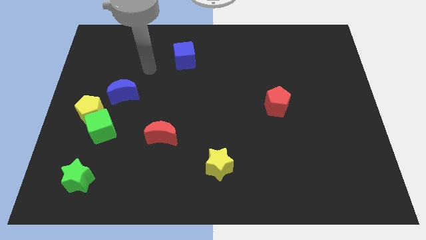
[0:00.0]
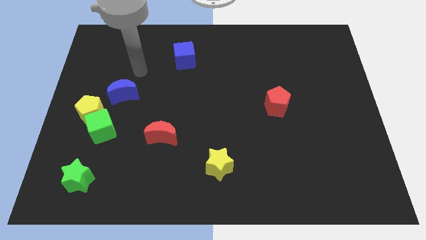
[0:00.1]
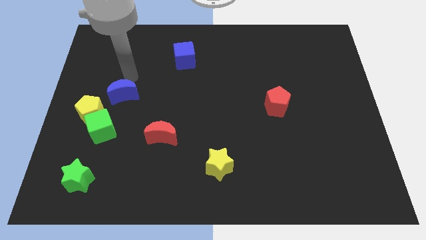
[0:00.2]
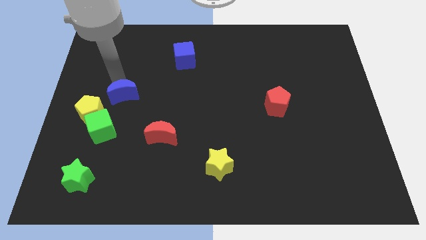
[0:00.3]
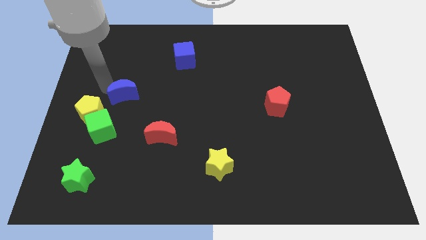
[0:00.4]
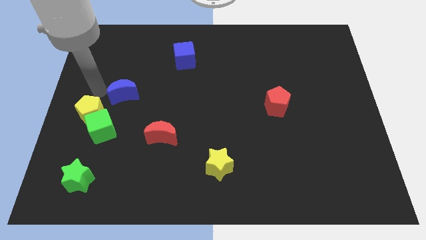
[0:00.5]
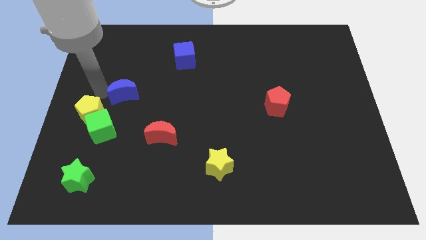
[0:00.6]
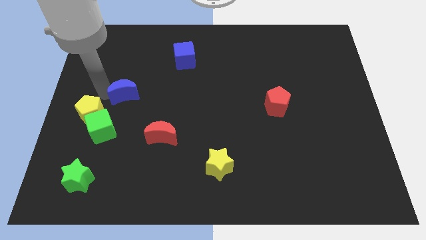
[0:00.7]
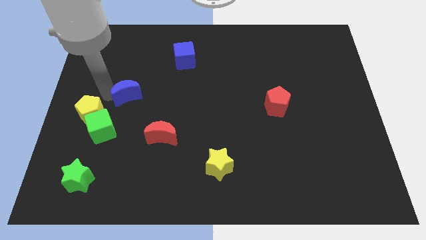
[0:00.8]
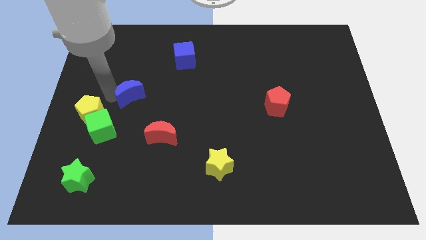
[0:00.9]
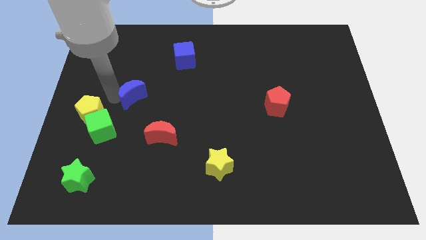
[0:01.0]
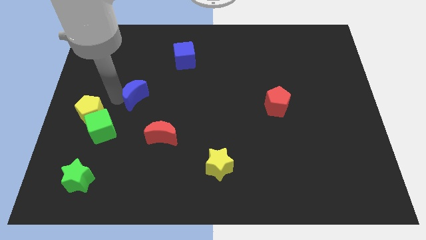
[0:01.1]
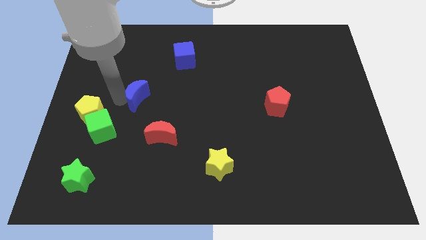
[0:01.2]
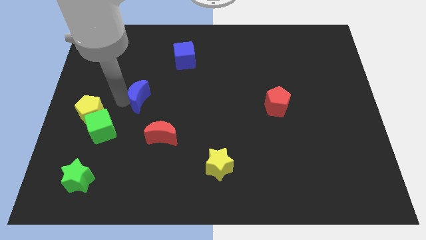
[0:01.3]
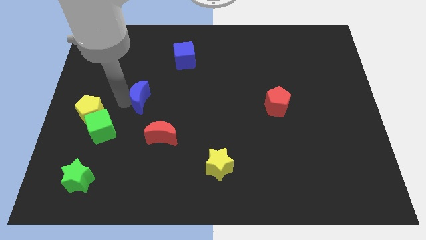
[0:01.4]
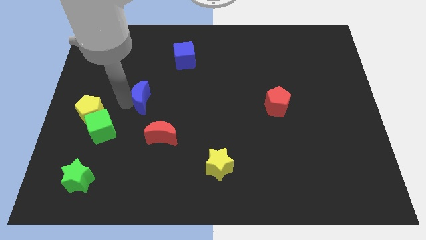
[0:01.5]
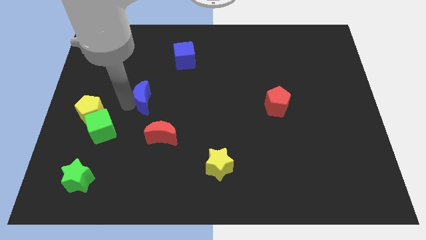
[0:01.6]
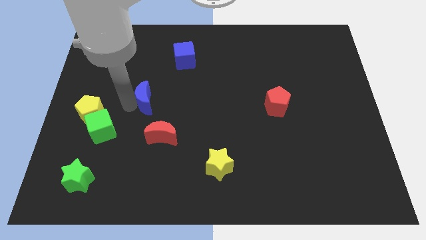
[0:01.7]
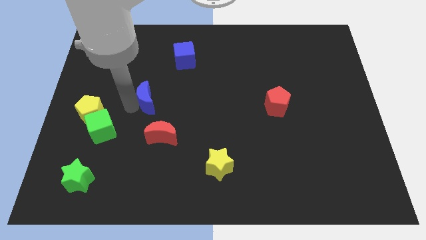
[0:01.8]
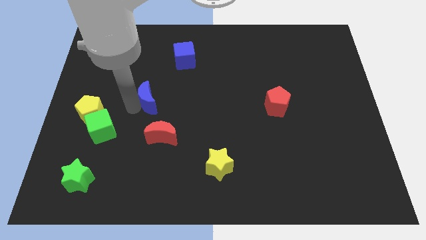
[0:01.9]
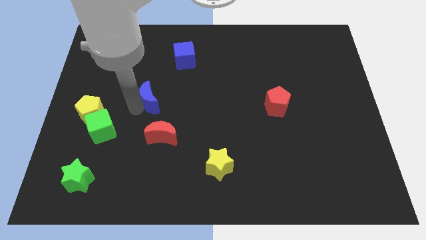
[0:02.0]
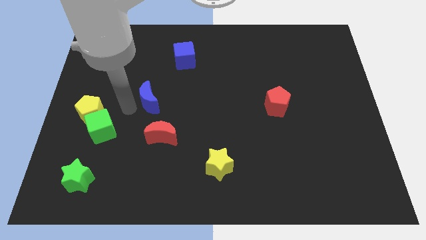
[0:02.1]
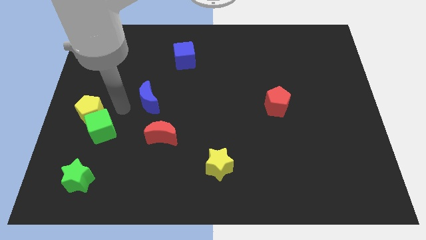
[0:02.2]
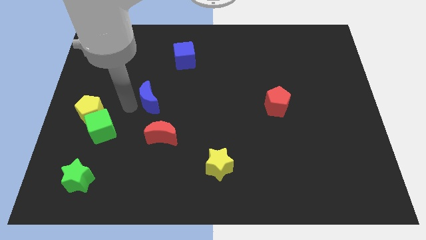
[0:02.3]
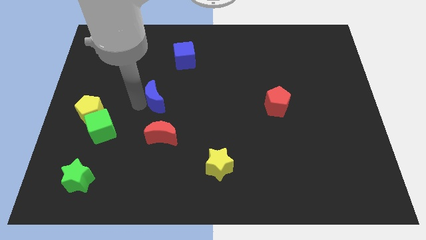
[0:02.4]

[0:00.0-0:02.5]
slightly push the blue moon right

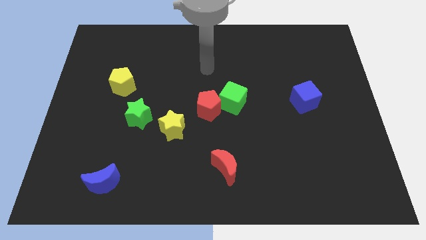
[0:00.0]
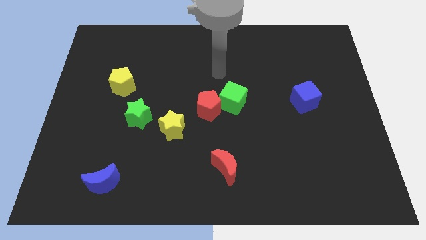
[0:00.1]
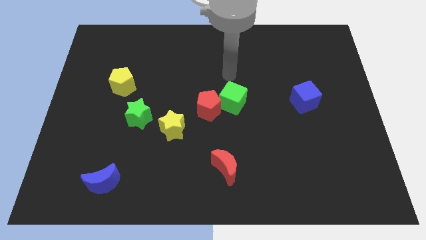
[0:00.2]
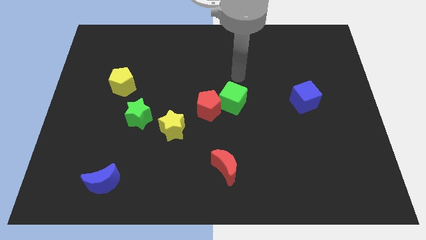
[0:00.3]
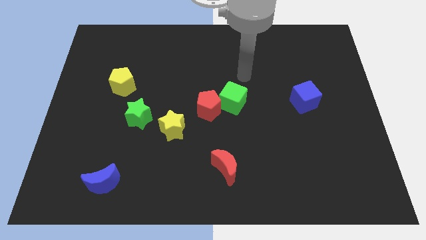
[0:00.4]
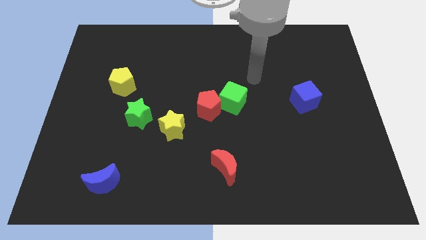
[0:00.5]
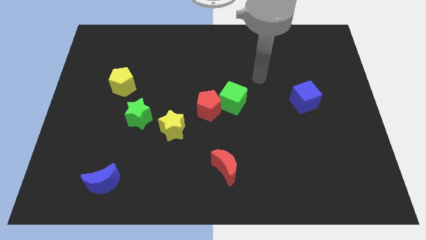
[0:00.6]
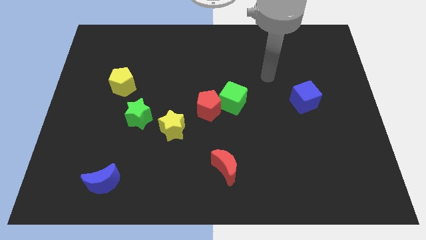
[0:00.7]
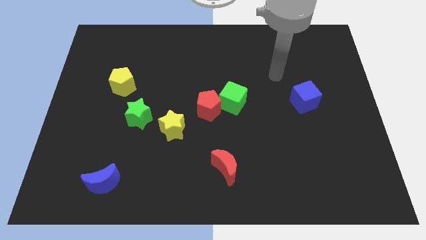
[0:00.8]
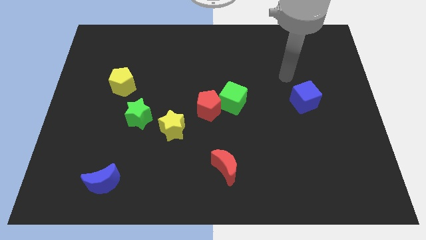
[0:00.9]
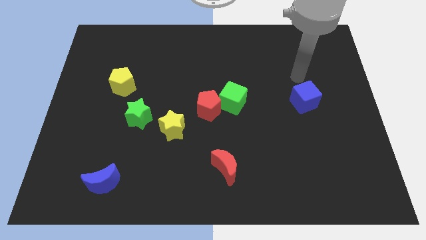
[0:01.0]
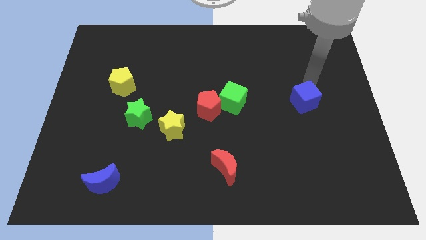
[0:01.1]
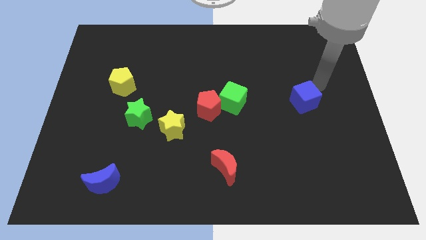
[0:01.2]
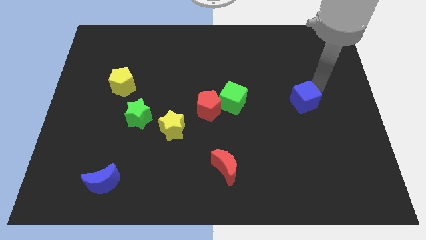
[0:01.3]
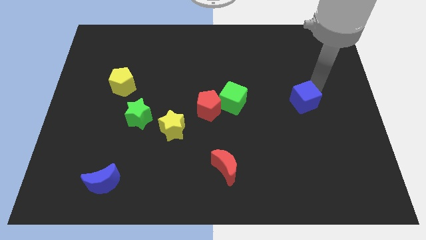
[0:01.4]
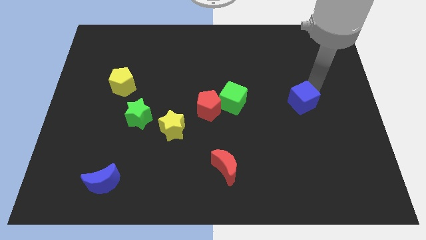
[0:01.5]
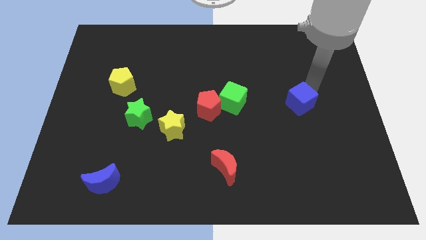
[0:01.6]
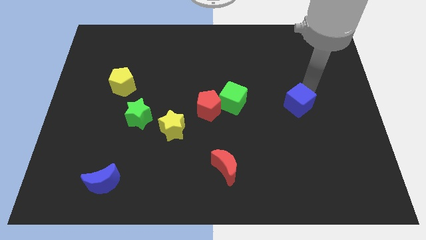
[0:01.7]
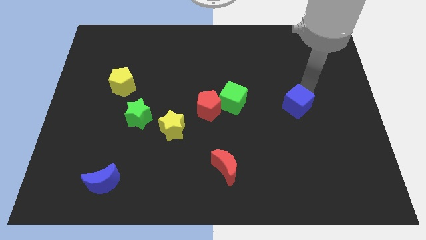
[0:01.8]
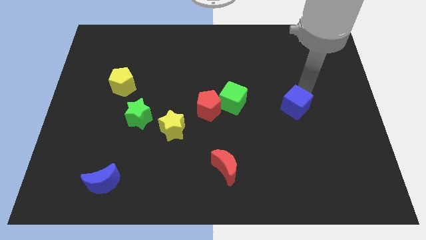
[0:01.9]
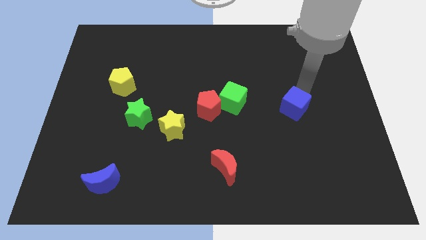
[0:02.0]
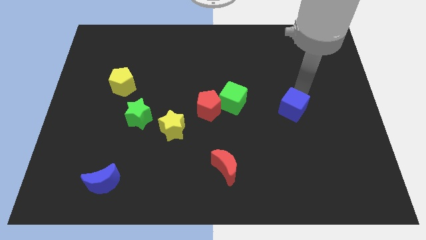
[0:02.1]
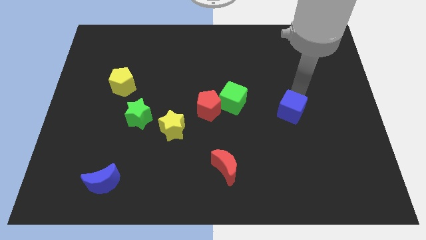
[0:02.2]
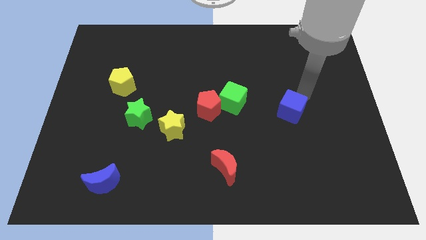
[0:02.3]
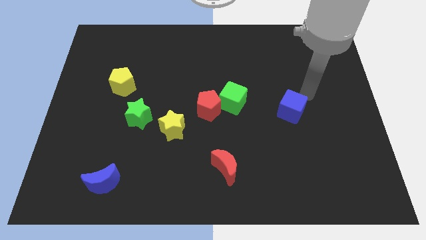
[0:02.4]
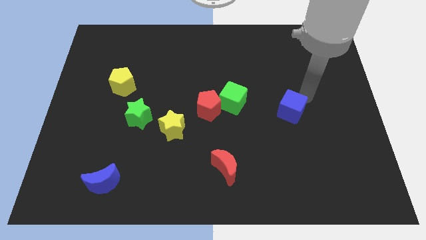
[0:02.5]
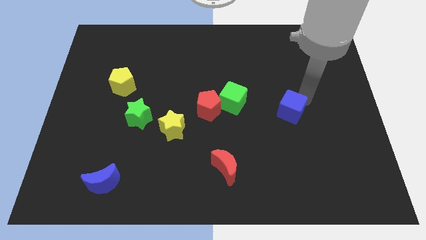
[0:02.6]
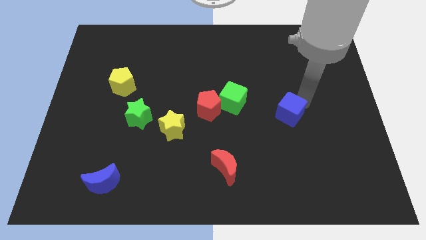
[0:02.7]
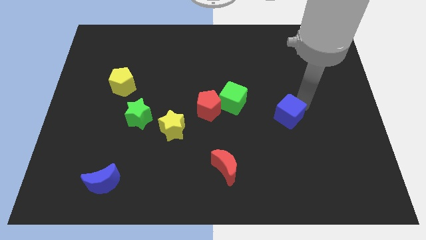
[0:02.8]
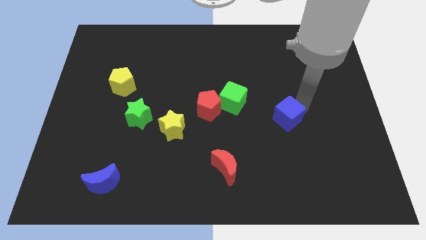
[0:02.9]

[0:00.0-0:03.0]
slightly push the blue cube down and to the left diagonally

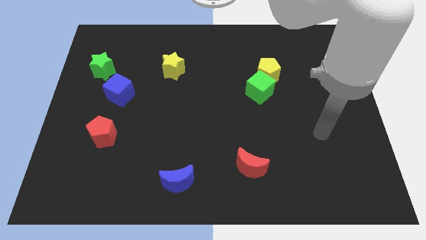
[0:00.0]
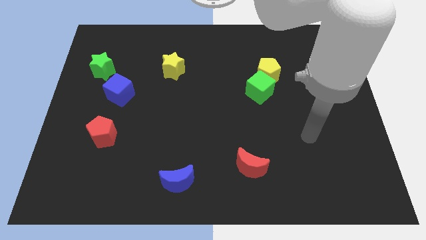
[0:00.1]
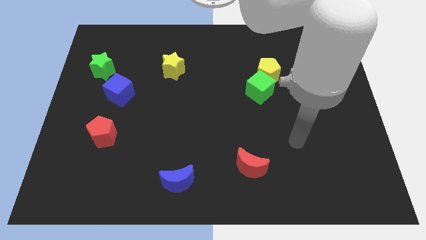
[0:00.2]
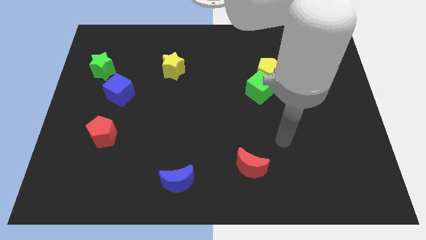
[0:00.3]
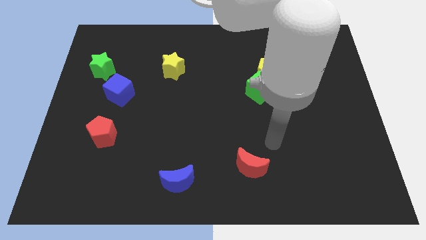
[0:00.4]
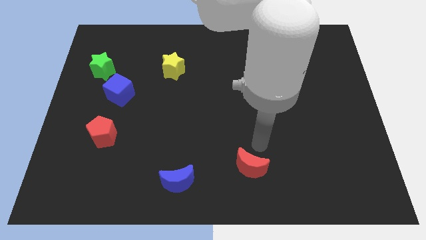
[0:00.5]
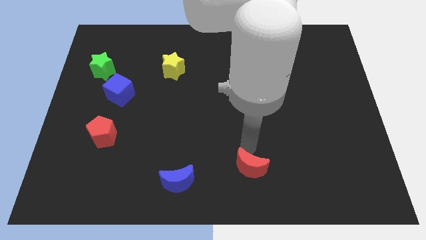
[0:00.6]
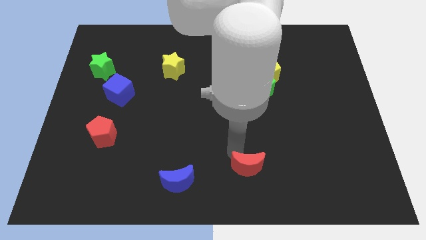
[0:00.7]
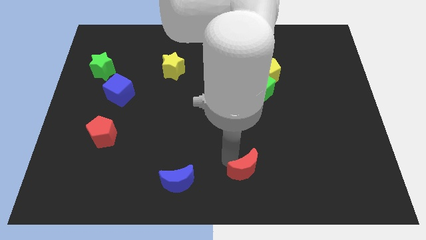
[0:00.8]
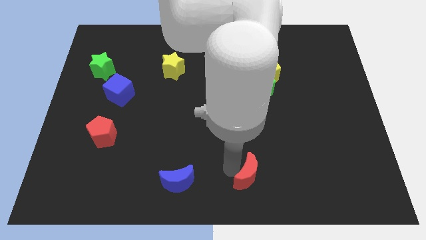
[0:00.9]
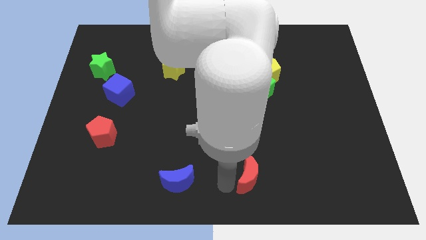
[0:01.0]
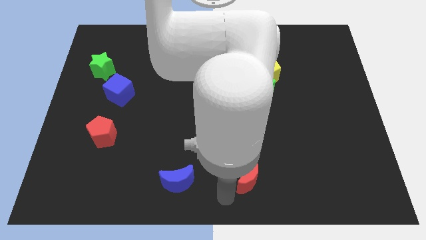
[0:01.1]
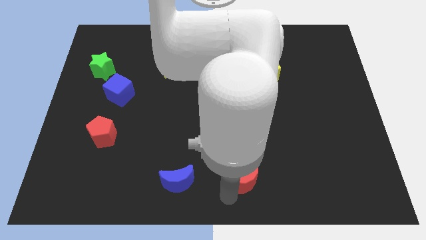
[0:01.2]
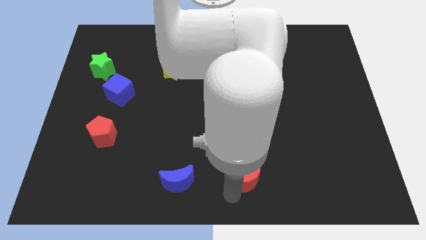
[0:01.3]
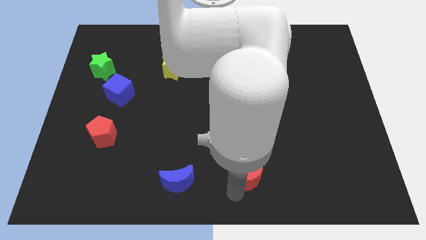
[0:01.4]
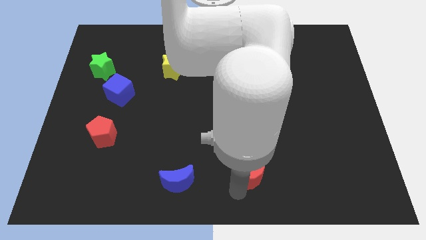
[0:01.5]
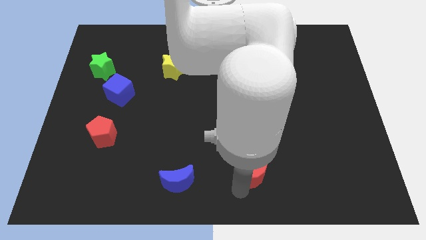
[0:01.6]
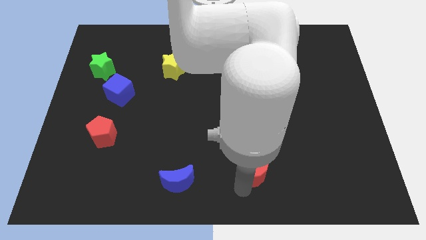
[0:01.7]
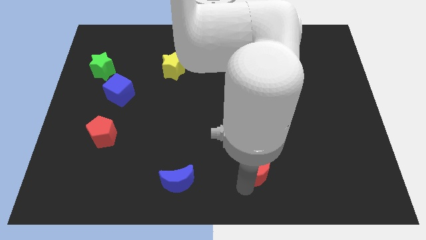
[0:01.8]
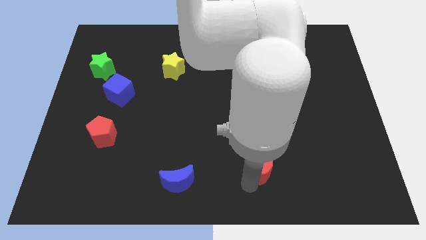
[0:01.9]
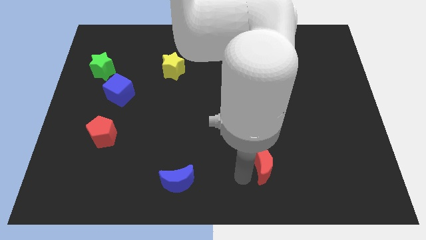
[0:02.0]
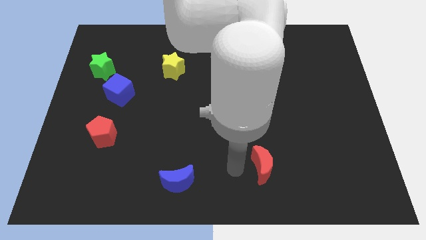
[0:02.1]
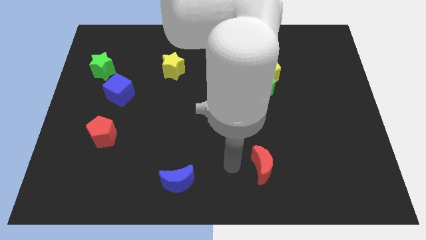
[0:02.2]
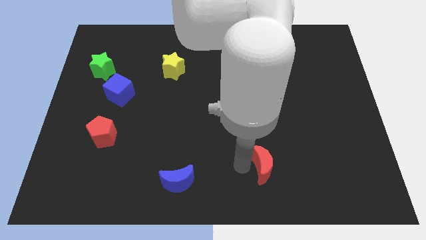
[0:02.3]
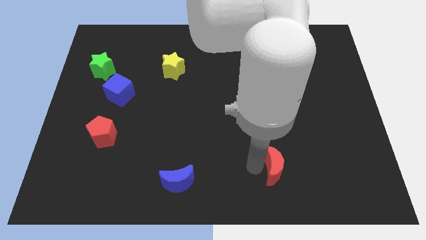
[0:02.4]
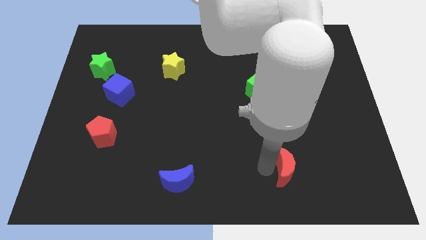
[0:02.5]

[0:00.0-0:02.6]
slightly slide the red moon right
